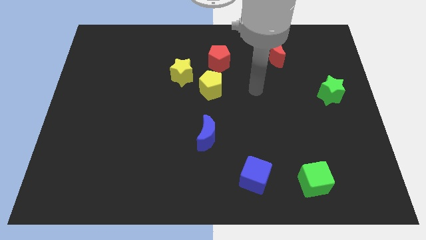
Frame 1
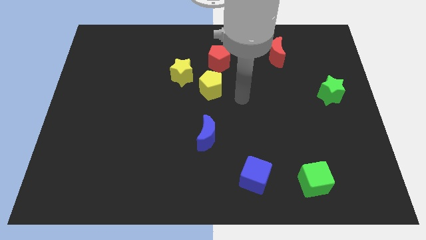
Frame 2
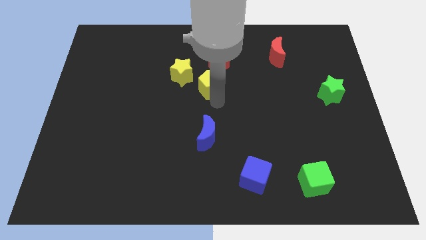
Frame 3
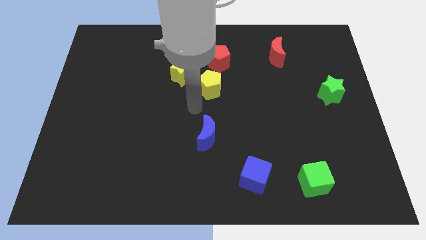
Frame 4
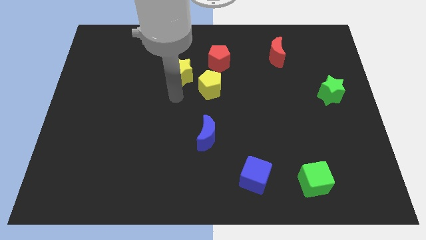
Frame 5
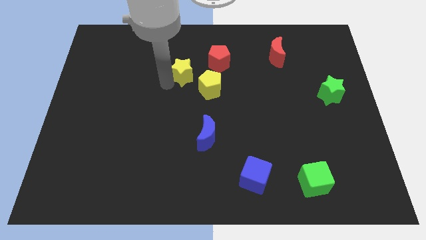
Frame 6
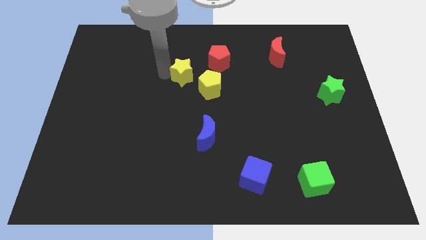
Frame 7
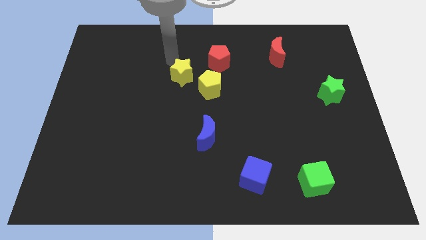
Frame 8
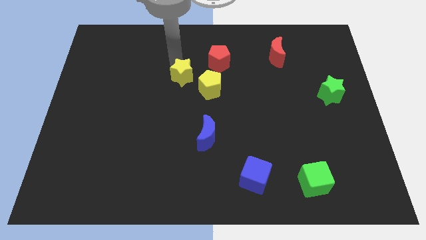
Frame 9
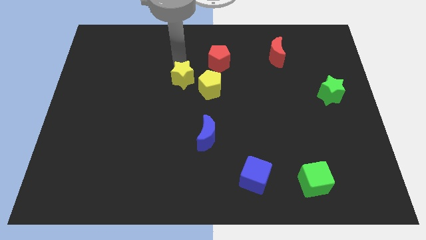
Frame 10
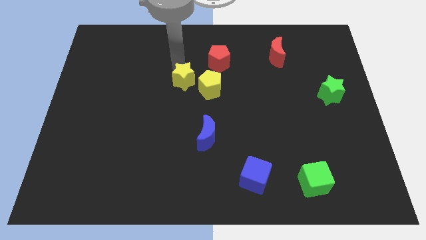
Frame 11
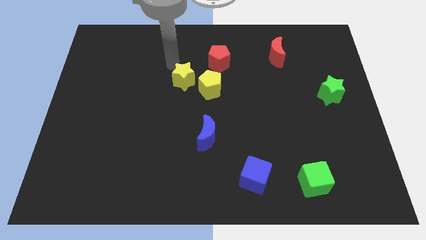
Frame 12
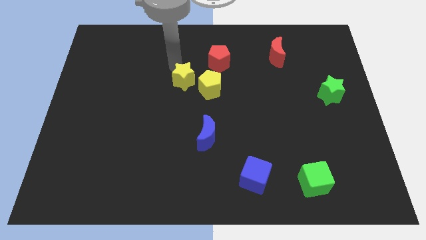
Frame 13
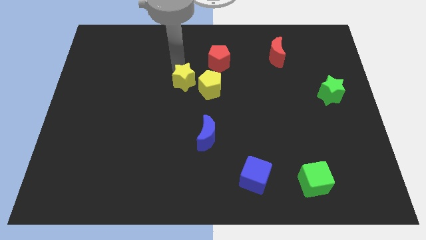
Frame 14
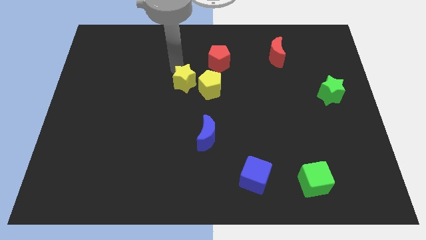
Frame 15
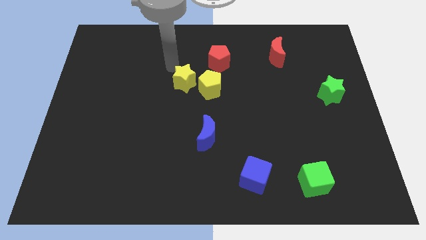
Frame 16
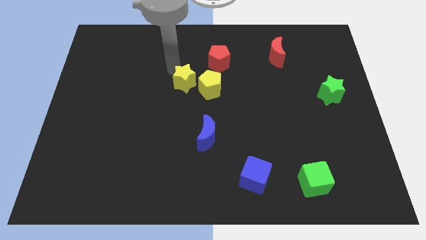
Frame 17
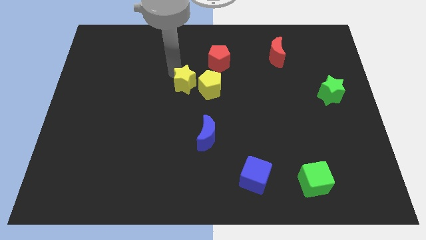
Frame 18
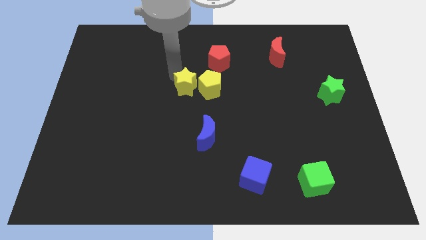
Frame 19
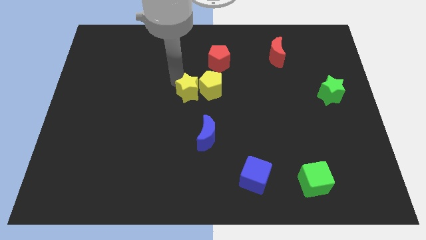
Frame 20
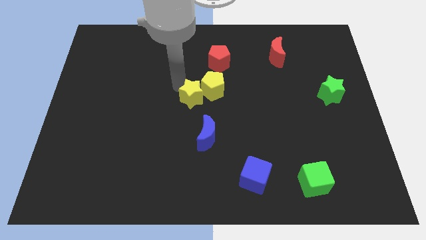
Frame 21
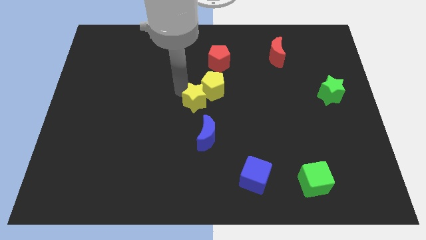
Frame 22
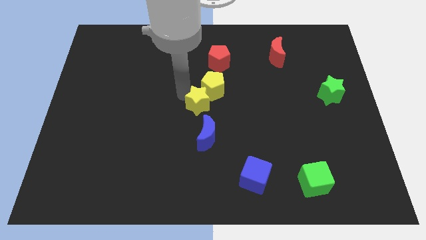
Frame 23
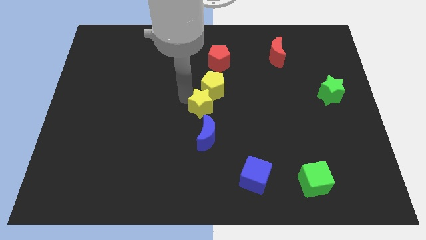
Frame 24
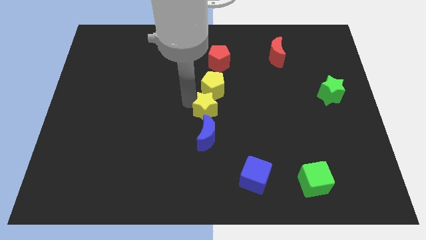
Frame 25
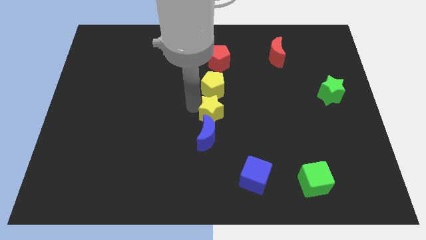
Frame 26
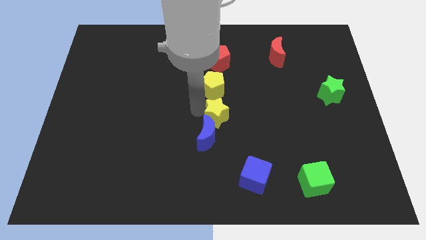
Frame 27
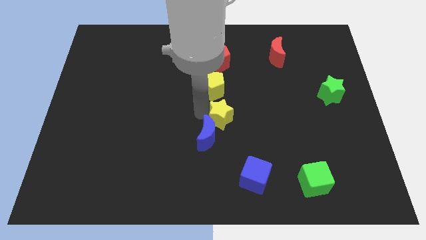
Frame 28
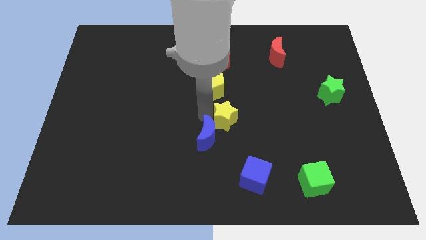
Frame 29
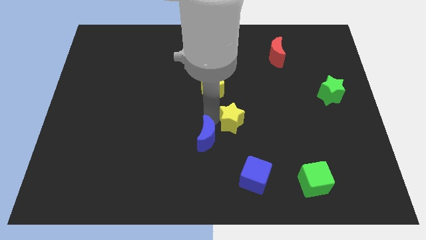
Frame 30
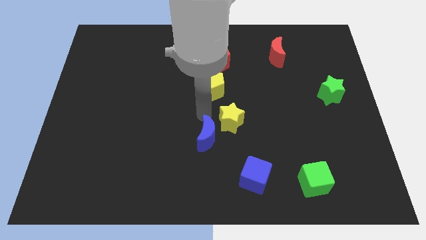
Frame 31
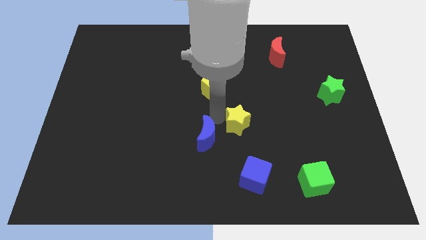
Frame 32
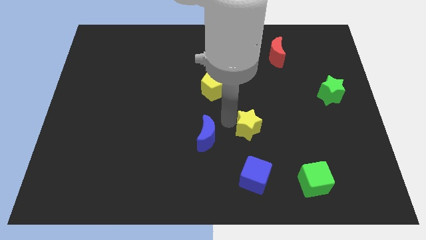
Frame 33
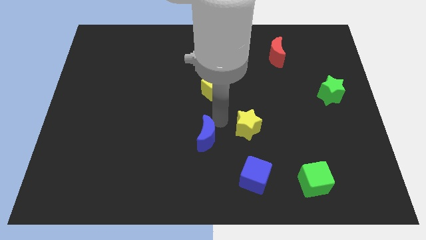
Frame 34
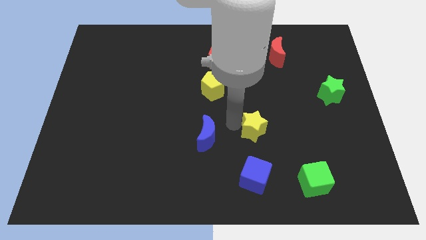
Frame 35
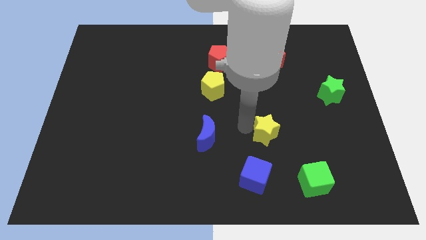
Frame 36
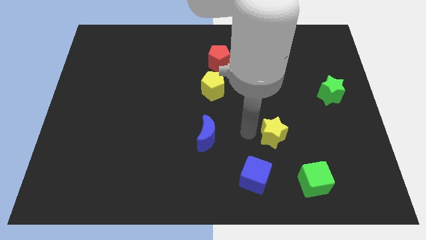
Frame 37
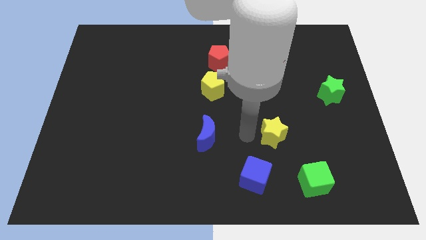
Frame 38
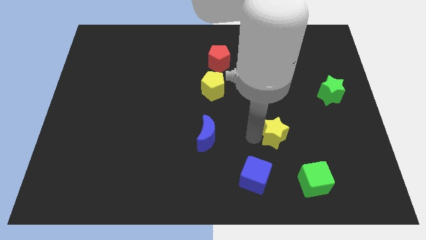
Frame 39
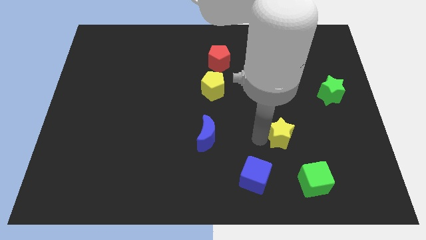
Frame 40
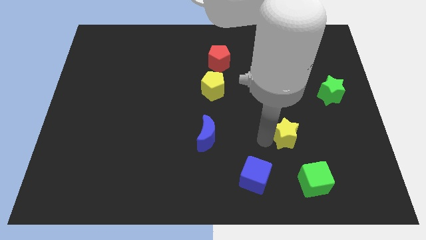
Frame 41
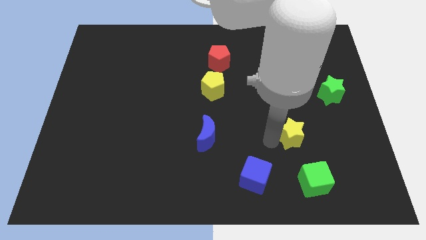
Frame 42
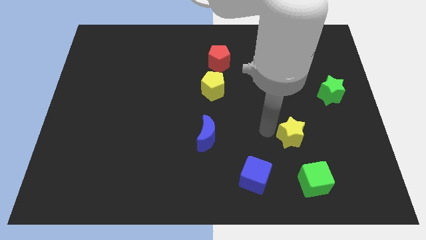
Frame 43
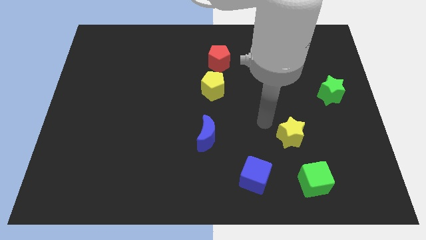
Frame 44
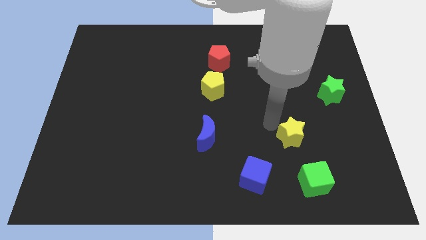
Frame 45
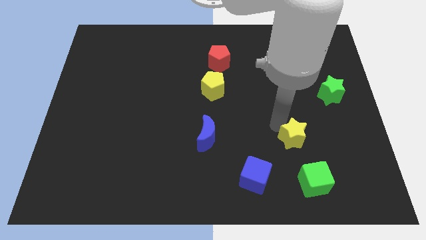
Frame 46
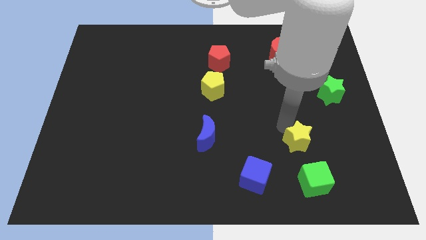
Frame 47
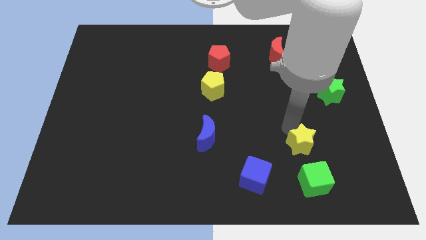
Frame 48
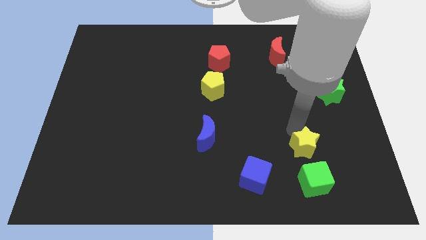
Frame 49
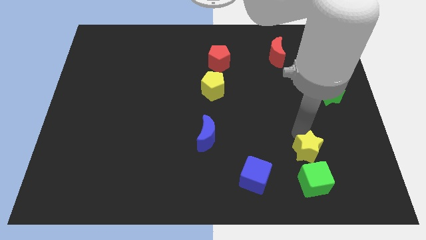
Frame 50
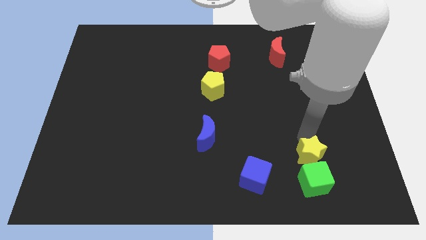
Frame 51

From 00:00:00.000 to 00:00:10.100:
put the yellow star to the top right side of the green cube

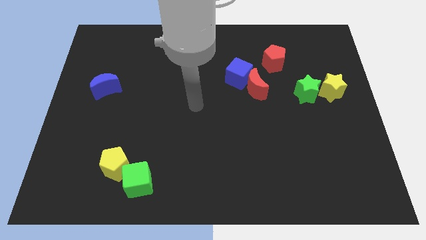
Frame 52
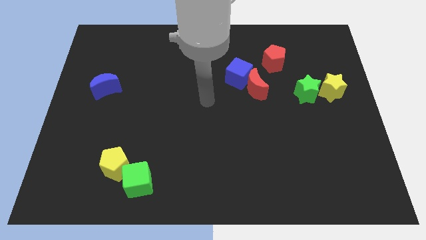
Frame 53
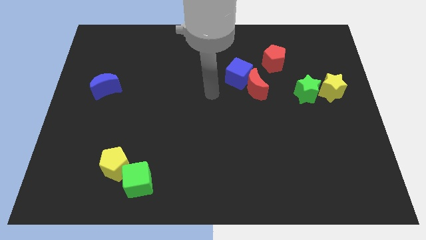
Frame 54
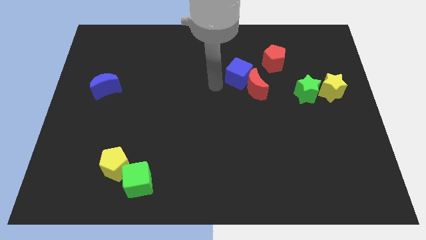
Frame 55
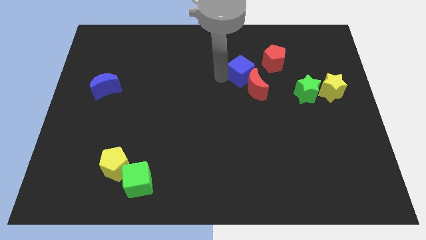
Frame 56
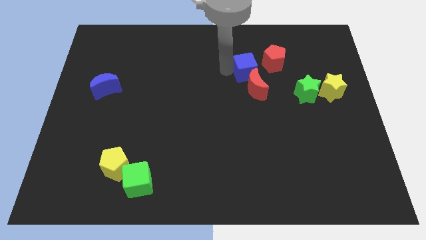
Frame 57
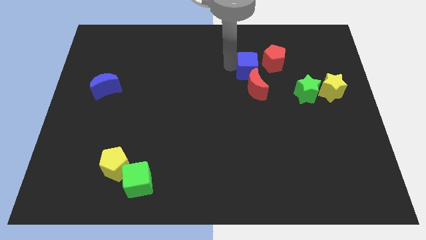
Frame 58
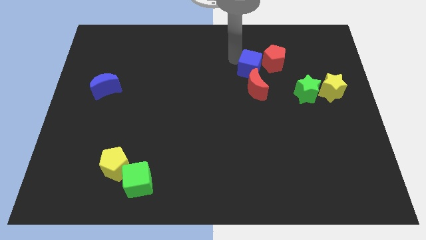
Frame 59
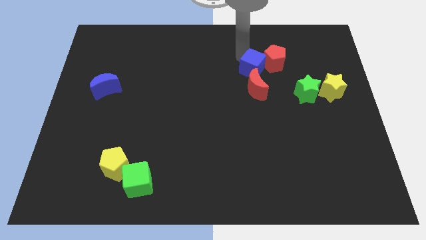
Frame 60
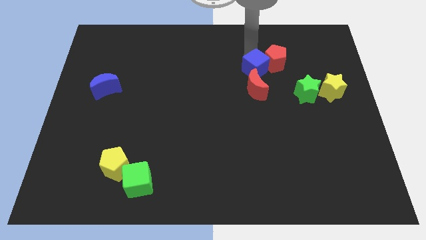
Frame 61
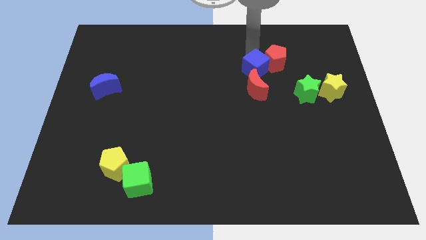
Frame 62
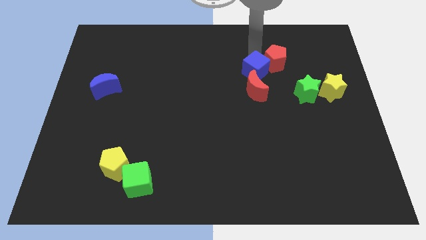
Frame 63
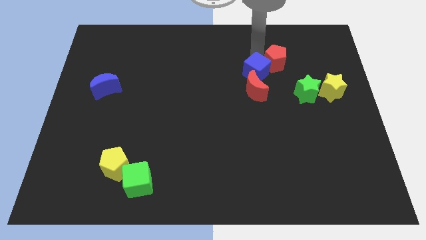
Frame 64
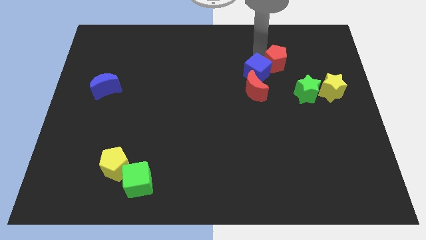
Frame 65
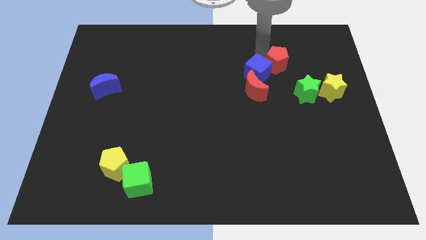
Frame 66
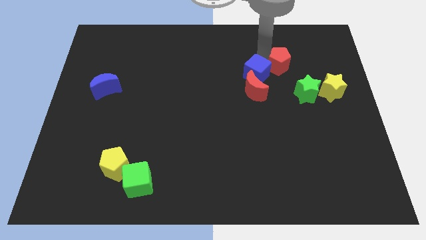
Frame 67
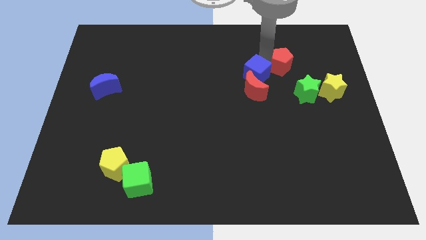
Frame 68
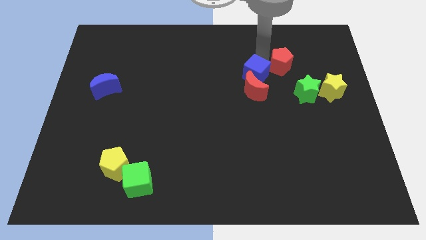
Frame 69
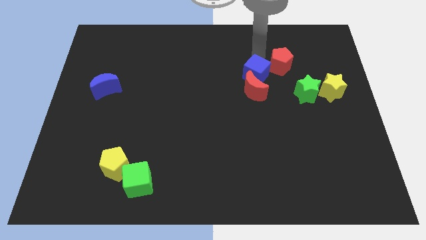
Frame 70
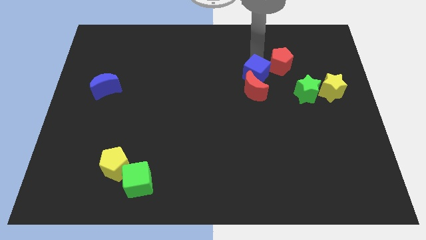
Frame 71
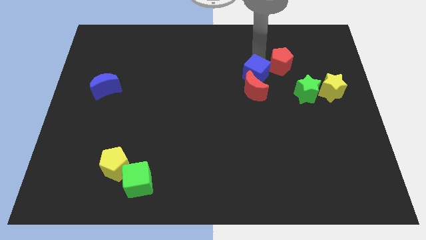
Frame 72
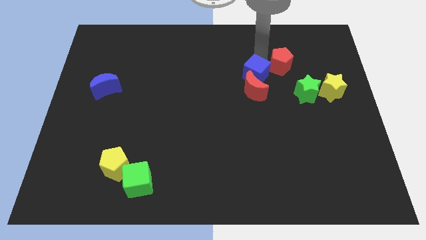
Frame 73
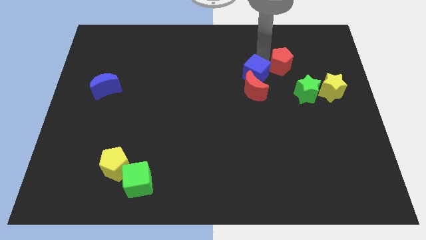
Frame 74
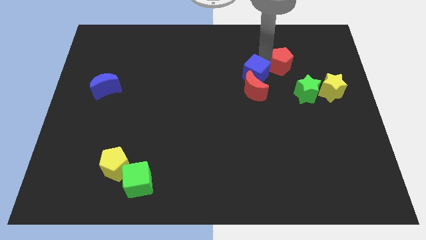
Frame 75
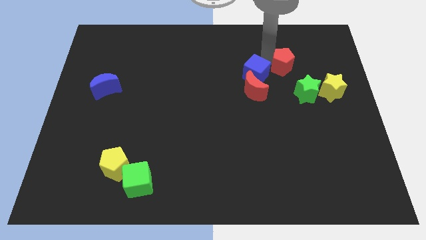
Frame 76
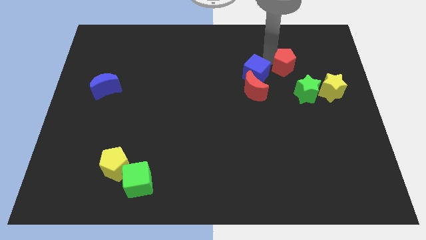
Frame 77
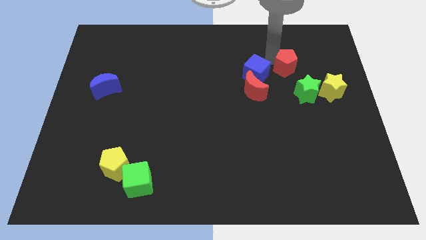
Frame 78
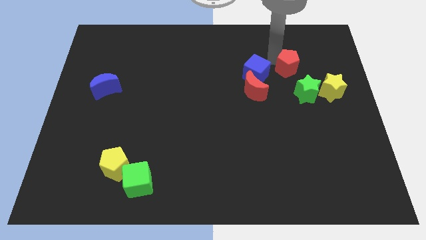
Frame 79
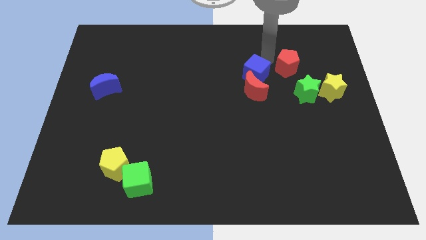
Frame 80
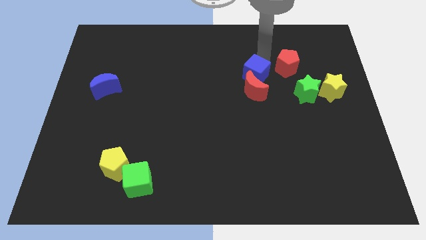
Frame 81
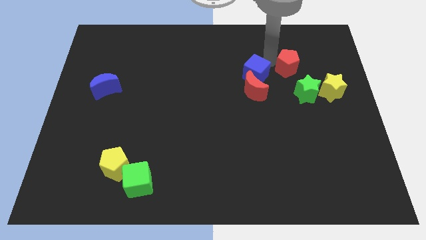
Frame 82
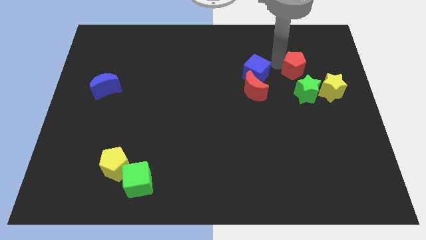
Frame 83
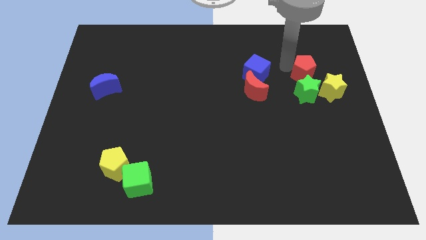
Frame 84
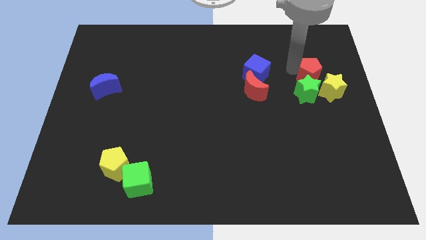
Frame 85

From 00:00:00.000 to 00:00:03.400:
put the red pentagon to the top right side of the green star
